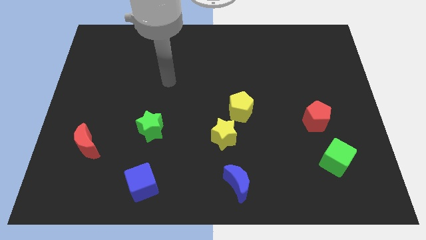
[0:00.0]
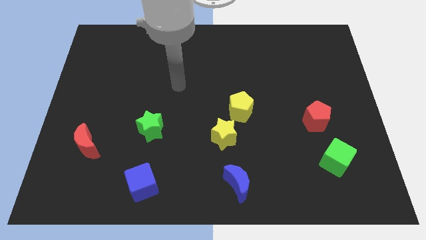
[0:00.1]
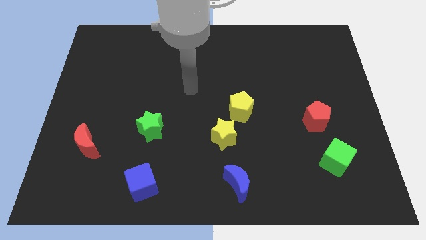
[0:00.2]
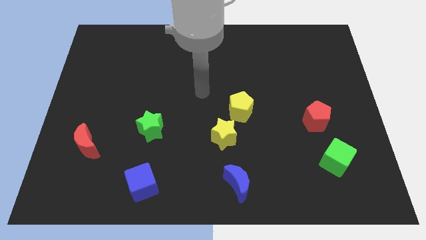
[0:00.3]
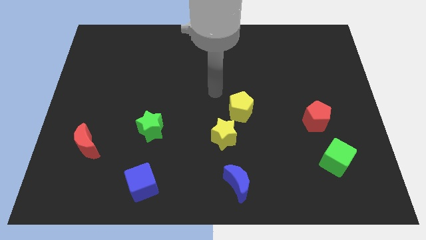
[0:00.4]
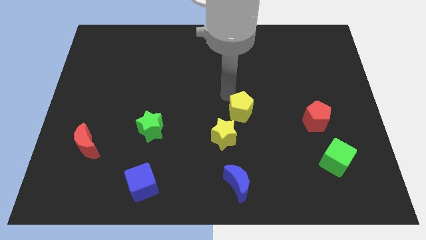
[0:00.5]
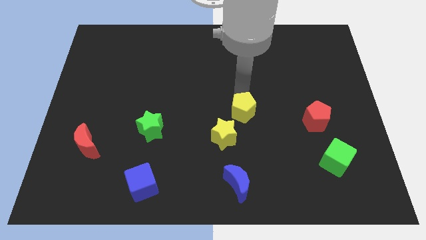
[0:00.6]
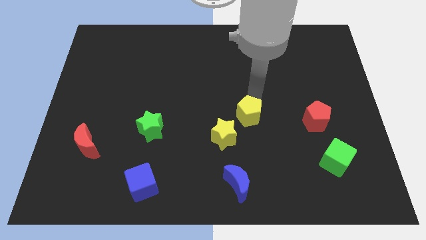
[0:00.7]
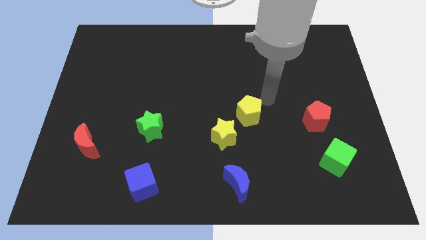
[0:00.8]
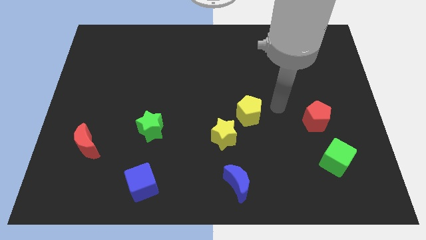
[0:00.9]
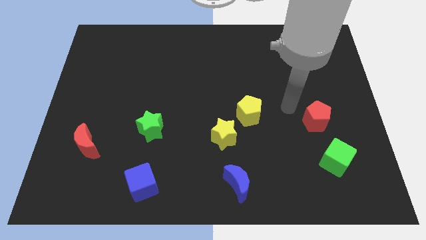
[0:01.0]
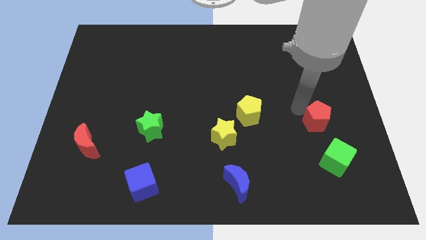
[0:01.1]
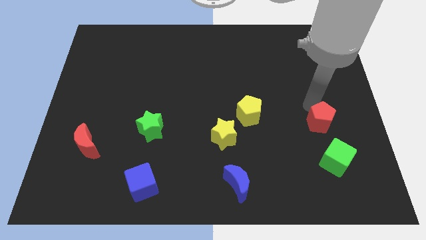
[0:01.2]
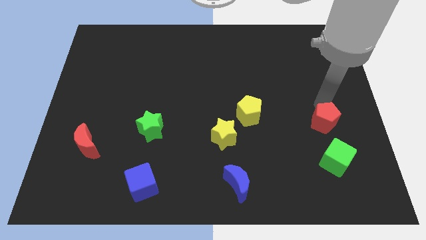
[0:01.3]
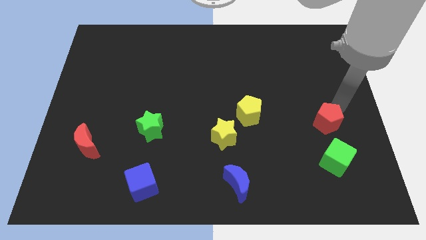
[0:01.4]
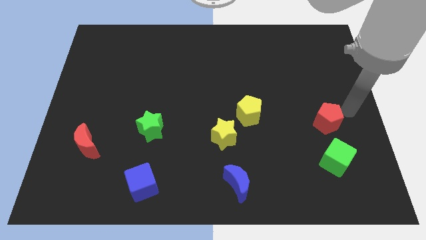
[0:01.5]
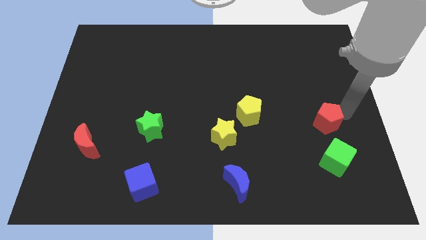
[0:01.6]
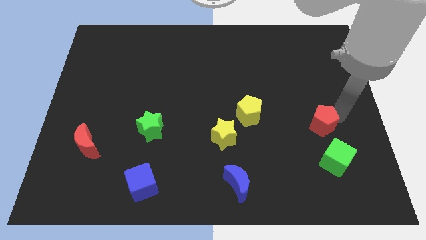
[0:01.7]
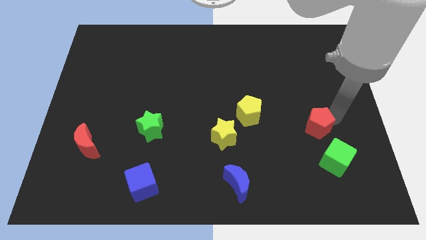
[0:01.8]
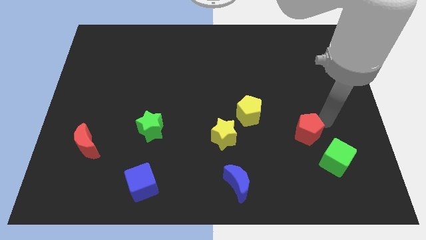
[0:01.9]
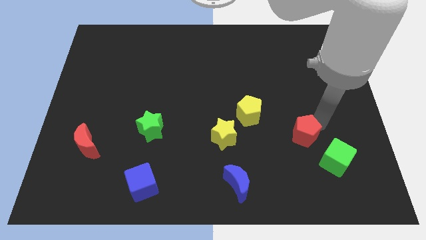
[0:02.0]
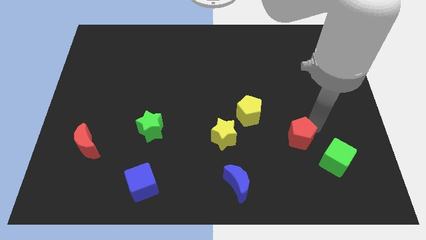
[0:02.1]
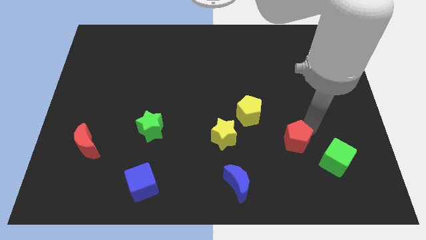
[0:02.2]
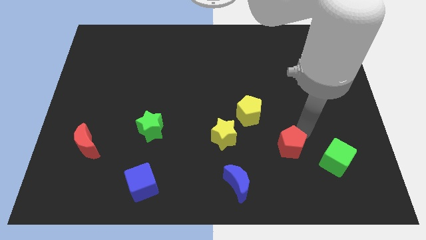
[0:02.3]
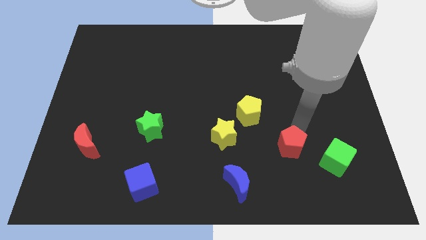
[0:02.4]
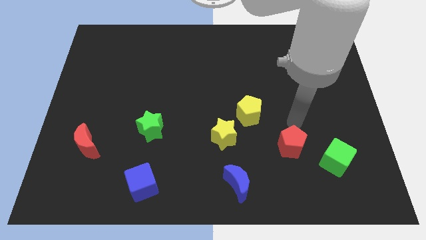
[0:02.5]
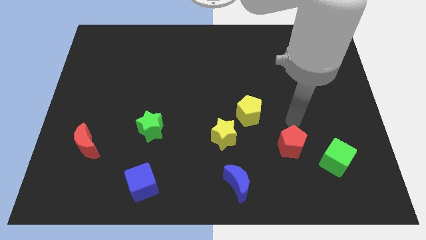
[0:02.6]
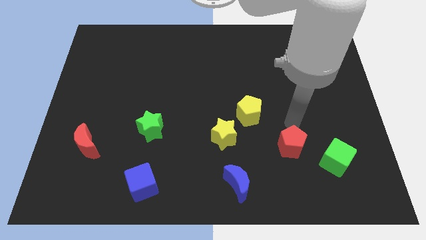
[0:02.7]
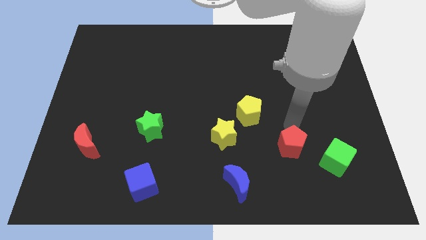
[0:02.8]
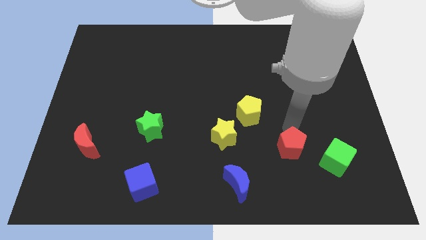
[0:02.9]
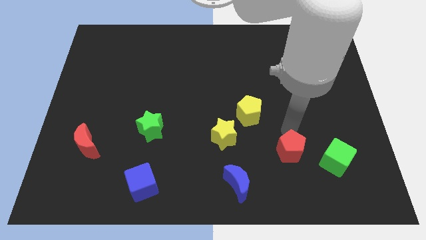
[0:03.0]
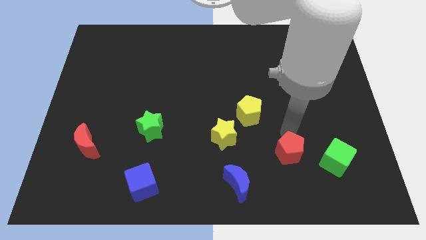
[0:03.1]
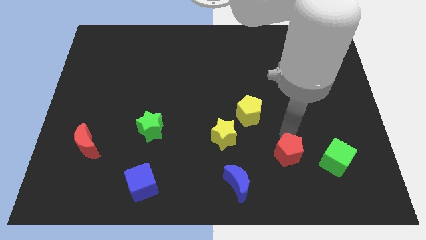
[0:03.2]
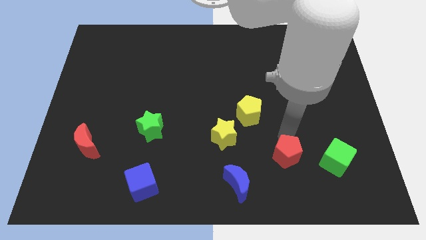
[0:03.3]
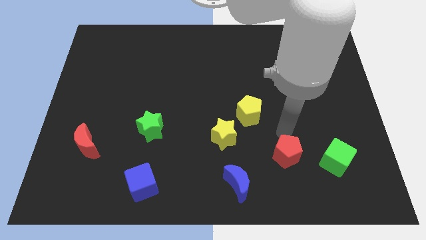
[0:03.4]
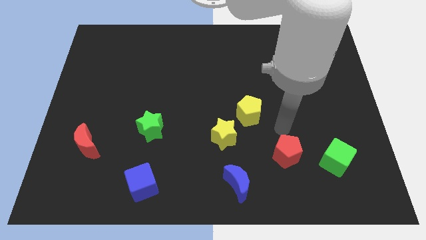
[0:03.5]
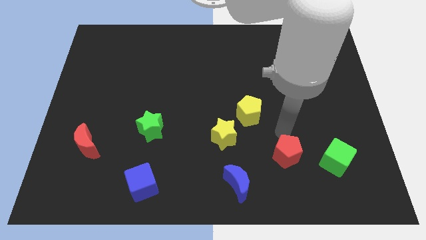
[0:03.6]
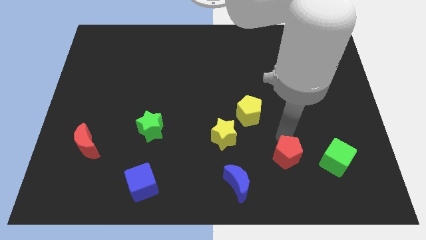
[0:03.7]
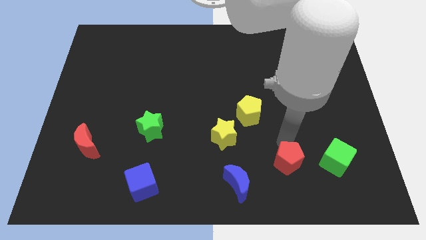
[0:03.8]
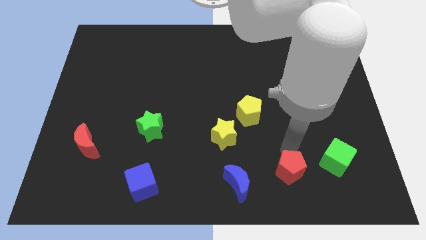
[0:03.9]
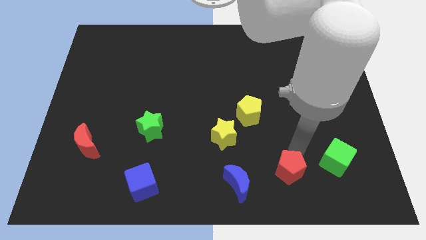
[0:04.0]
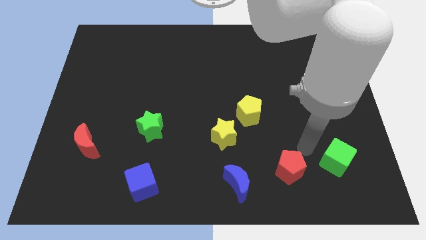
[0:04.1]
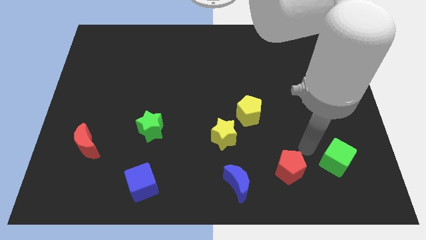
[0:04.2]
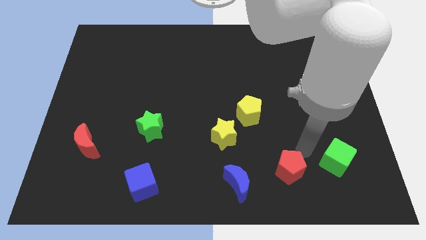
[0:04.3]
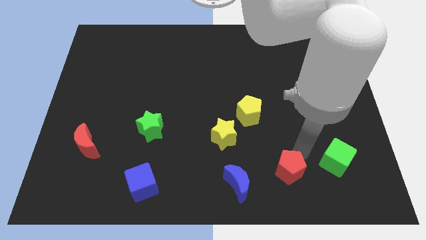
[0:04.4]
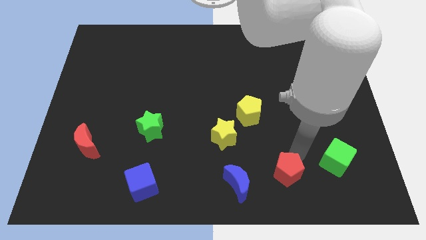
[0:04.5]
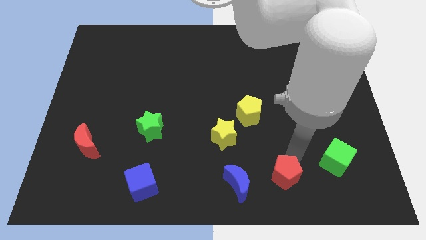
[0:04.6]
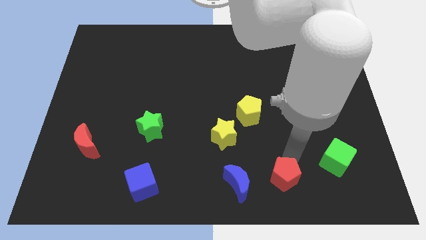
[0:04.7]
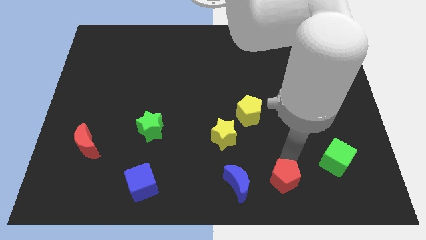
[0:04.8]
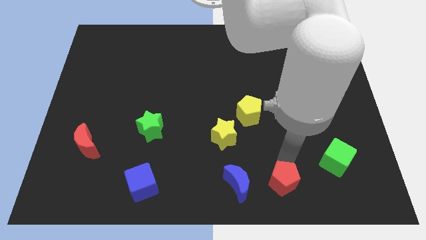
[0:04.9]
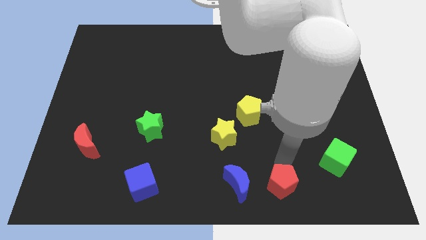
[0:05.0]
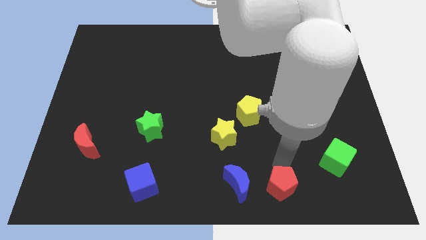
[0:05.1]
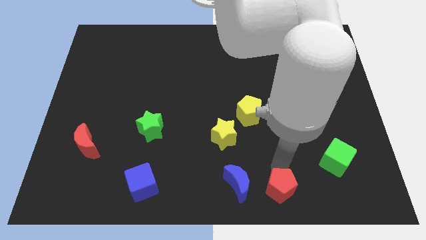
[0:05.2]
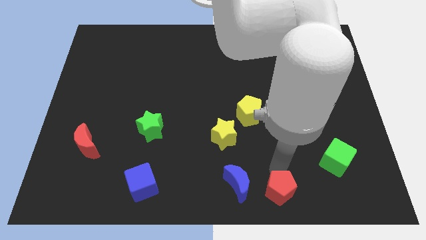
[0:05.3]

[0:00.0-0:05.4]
push the red pentagon to the bottom

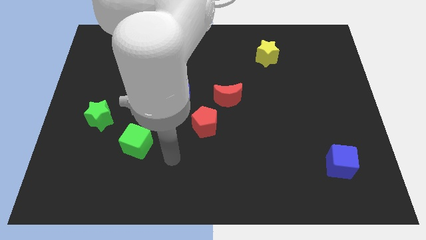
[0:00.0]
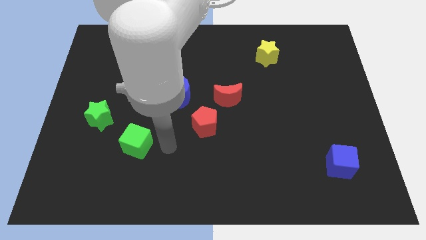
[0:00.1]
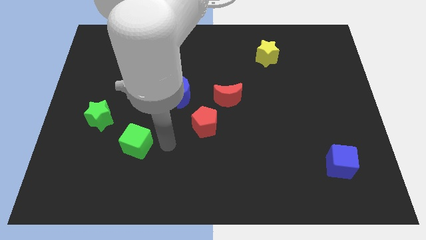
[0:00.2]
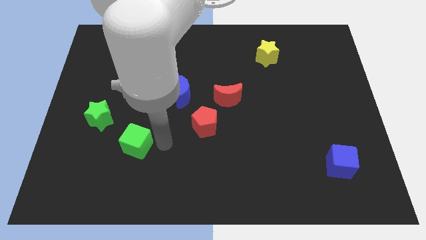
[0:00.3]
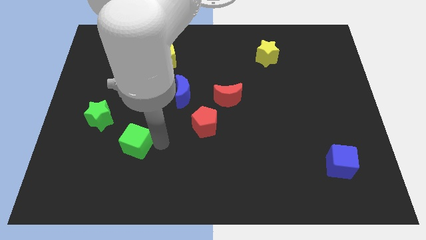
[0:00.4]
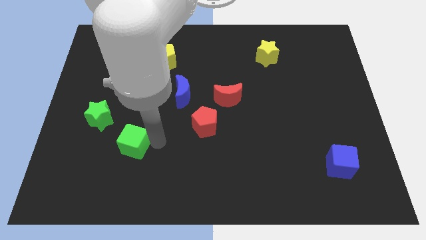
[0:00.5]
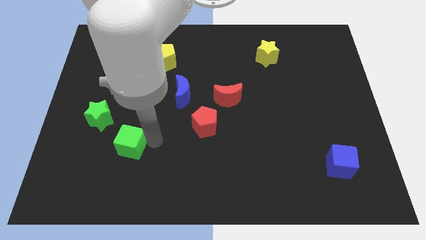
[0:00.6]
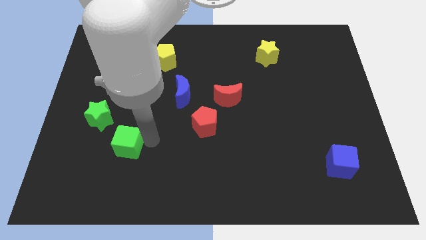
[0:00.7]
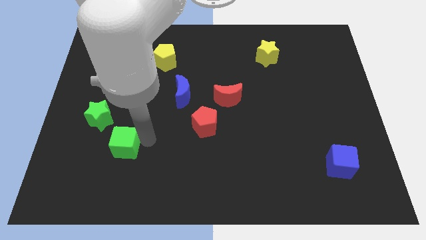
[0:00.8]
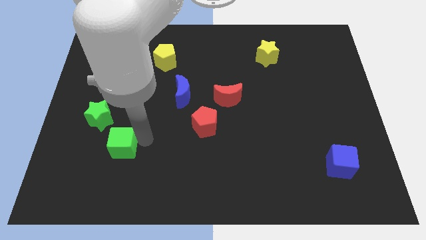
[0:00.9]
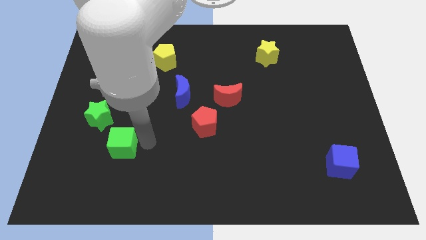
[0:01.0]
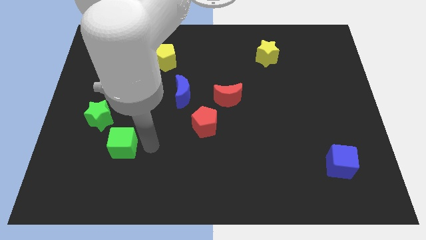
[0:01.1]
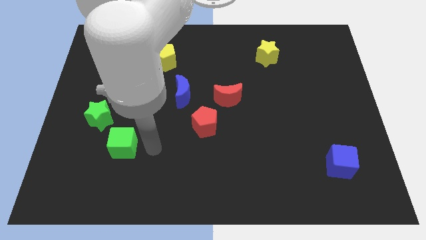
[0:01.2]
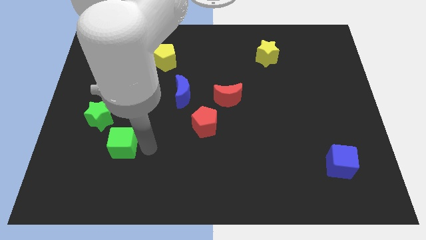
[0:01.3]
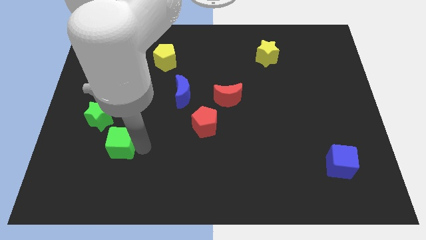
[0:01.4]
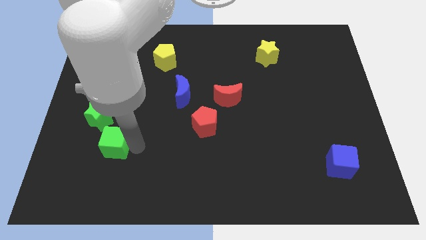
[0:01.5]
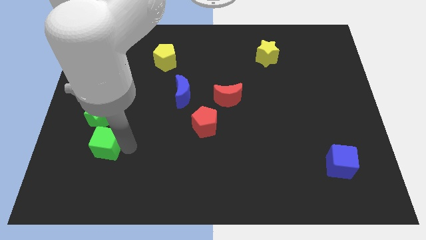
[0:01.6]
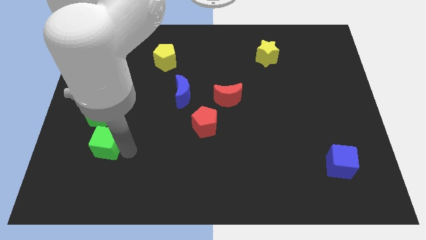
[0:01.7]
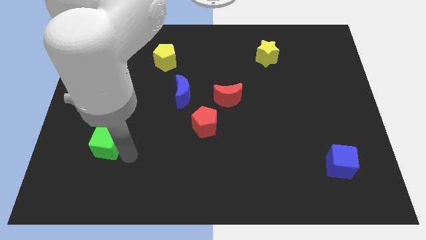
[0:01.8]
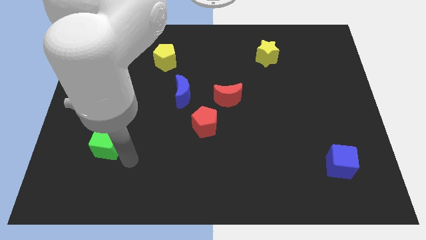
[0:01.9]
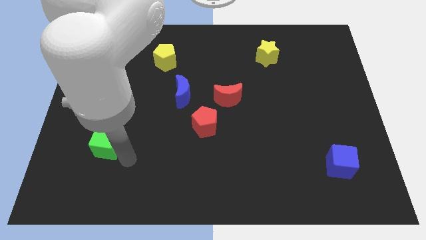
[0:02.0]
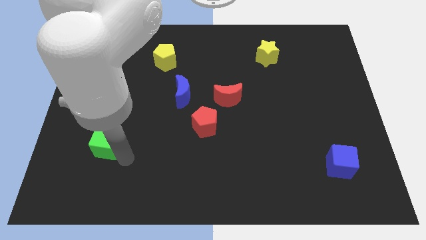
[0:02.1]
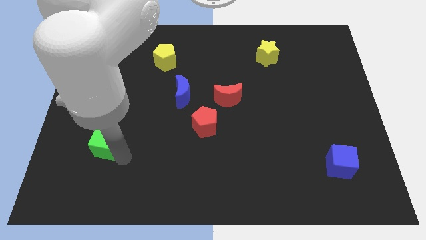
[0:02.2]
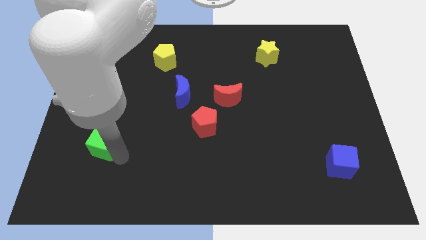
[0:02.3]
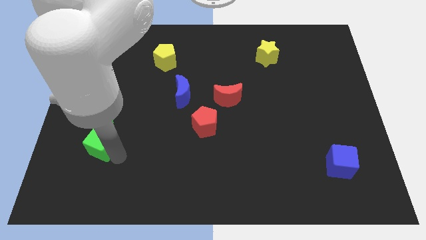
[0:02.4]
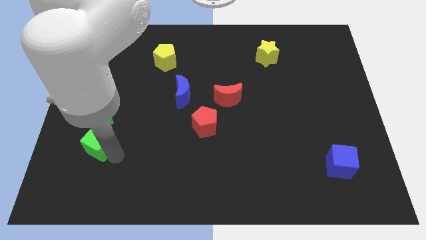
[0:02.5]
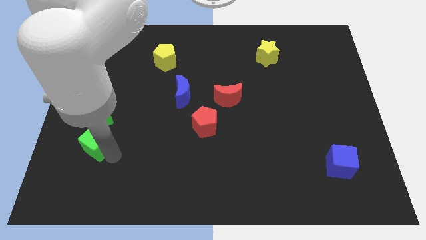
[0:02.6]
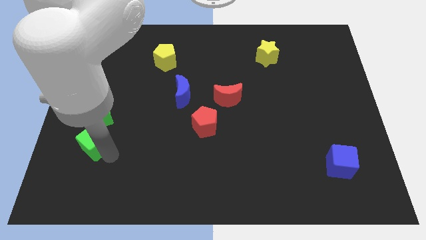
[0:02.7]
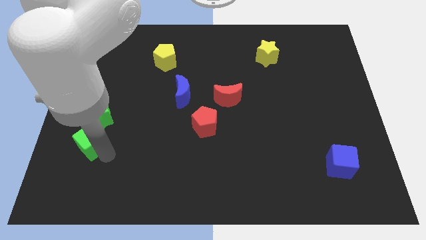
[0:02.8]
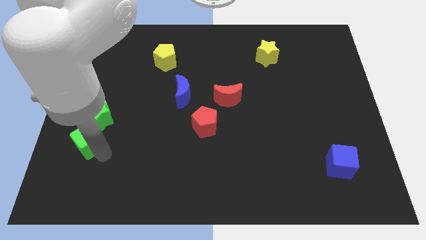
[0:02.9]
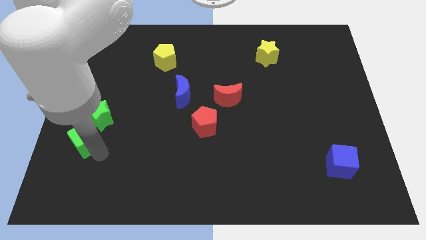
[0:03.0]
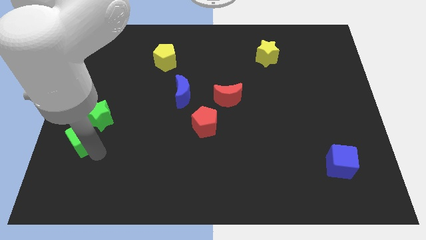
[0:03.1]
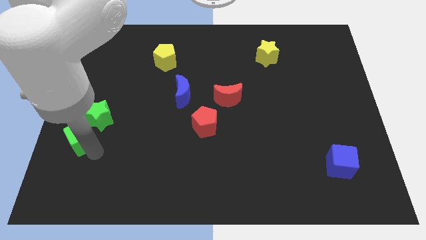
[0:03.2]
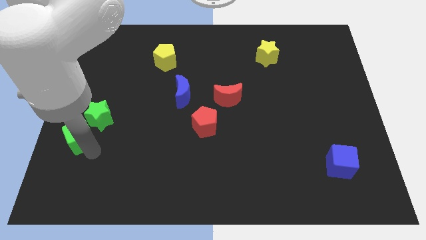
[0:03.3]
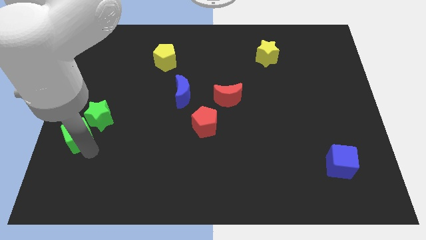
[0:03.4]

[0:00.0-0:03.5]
slide the green cube to the left side
